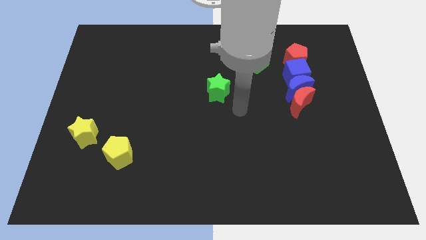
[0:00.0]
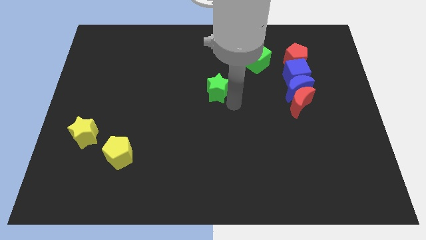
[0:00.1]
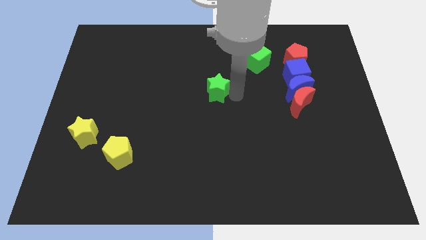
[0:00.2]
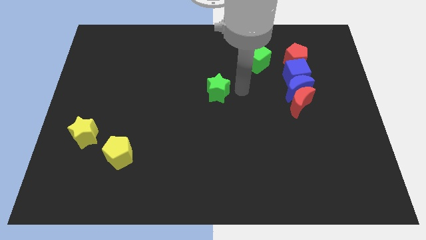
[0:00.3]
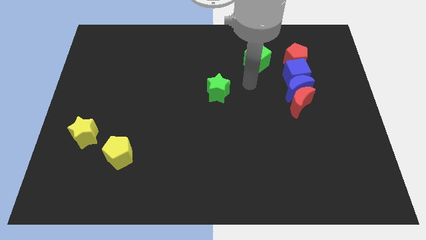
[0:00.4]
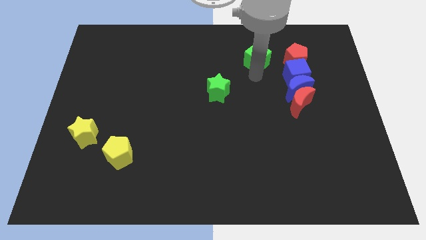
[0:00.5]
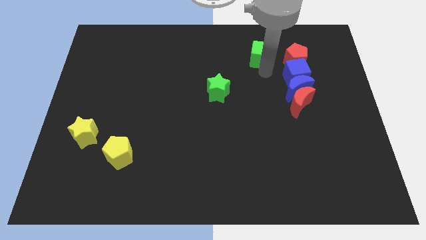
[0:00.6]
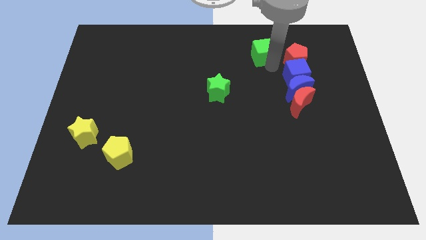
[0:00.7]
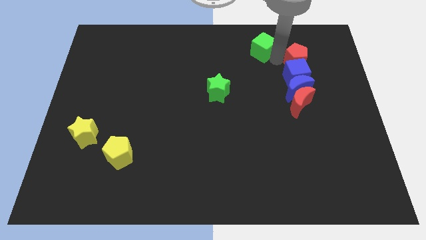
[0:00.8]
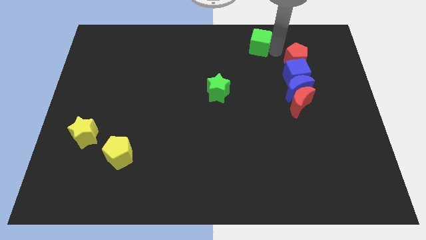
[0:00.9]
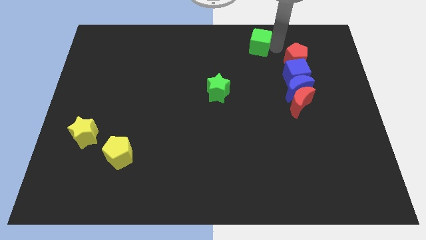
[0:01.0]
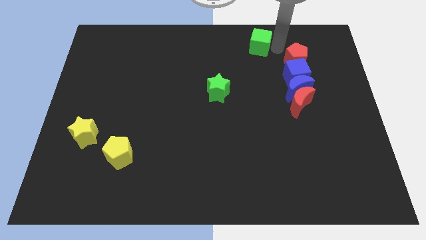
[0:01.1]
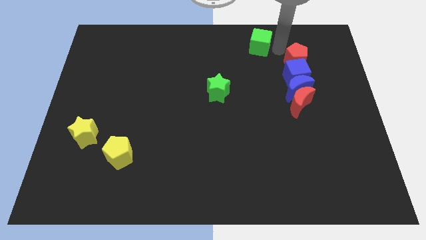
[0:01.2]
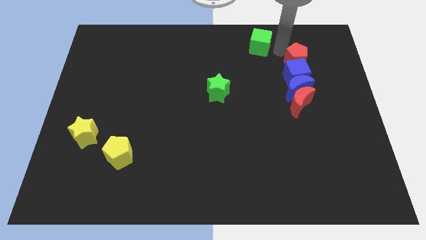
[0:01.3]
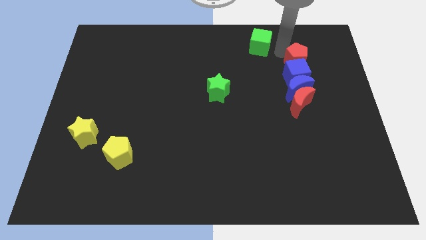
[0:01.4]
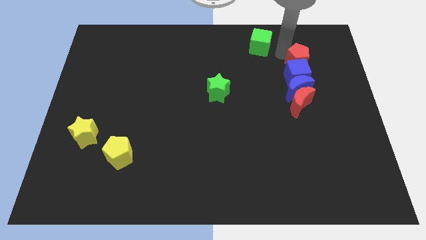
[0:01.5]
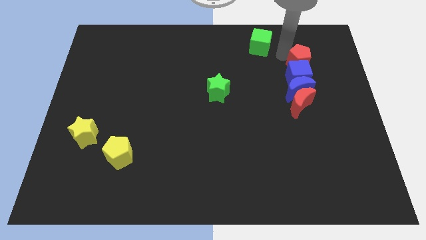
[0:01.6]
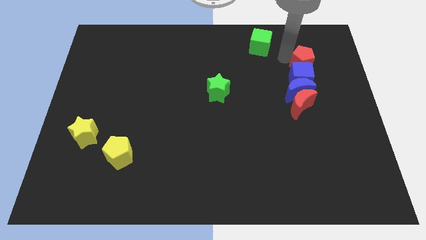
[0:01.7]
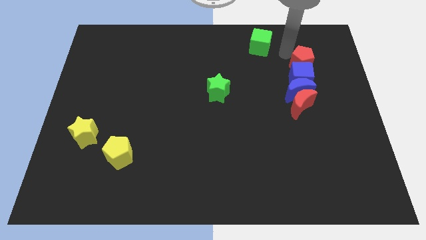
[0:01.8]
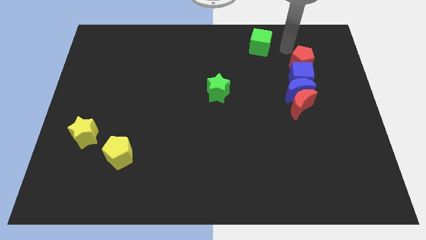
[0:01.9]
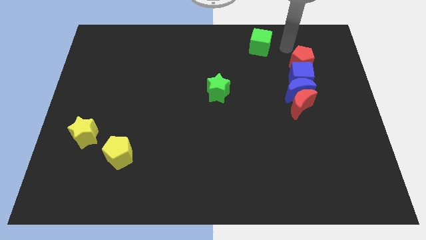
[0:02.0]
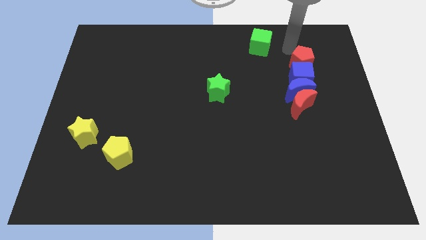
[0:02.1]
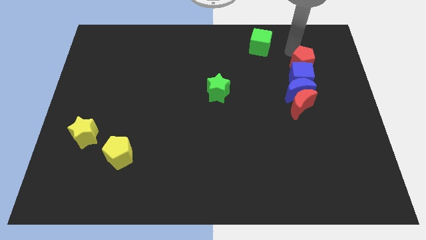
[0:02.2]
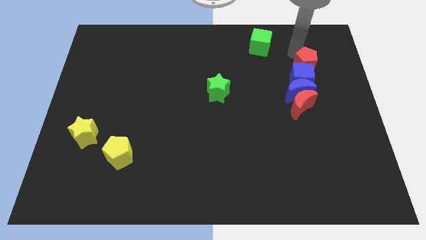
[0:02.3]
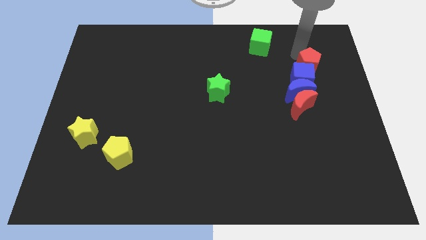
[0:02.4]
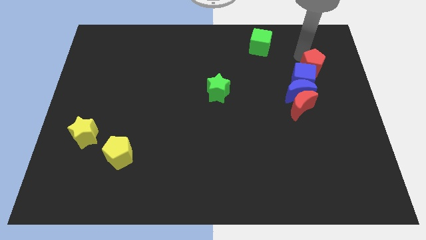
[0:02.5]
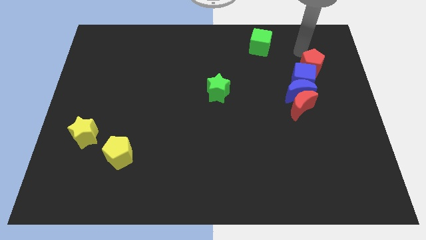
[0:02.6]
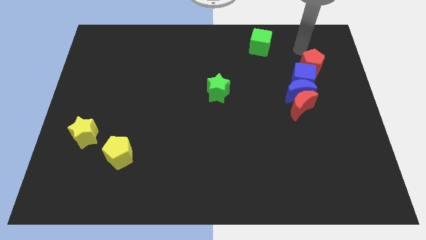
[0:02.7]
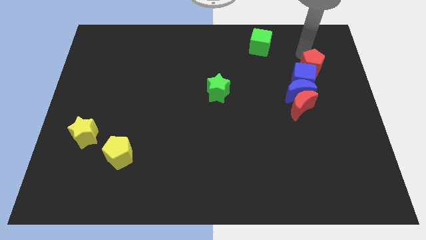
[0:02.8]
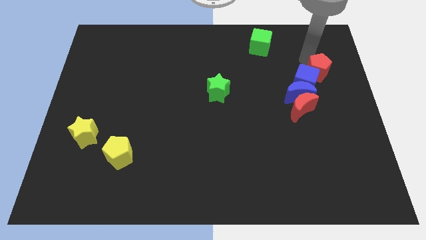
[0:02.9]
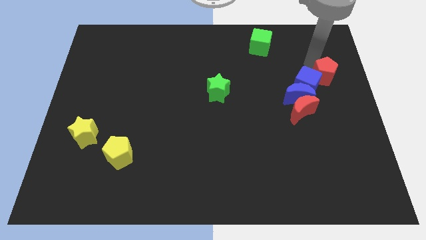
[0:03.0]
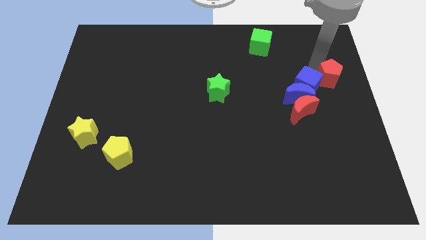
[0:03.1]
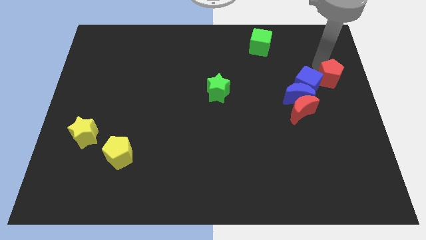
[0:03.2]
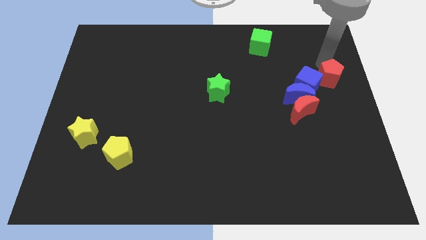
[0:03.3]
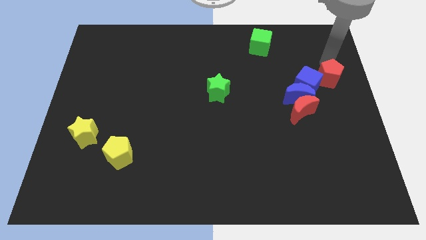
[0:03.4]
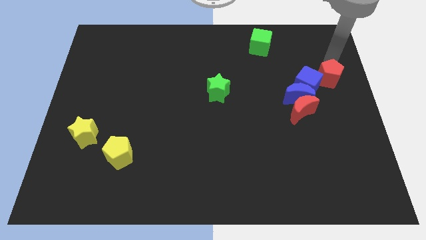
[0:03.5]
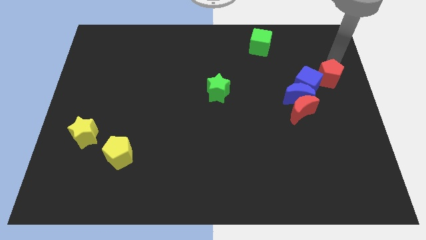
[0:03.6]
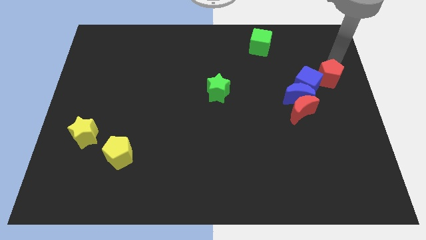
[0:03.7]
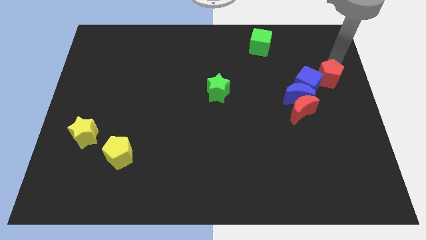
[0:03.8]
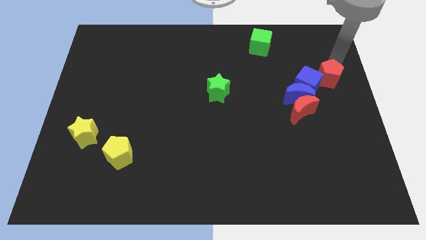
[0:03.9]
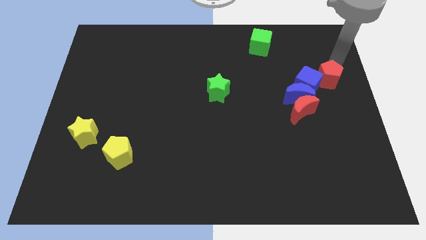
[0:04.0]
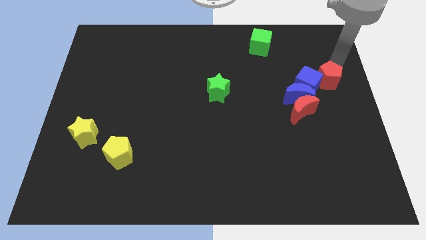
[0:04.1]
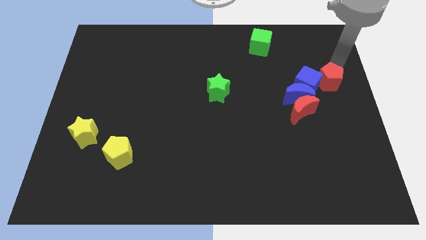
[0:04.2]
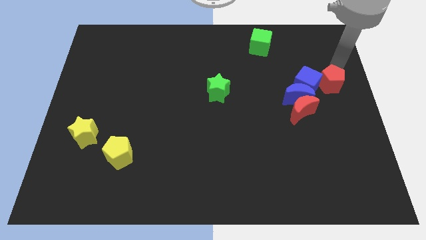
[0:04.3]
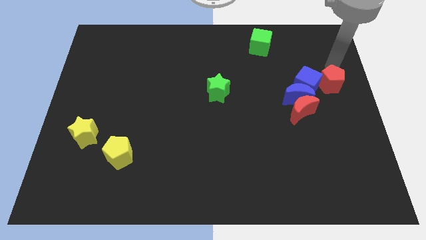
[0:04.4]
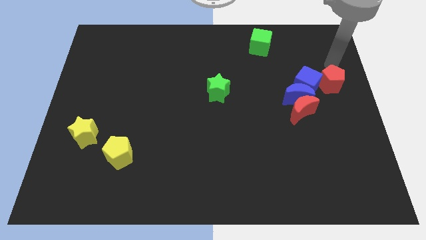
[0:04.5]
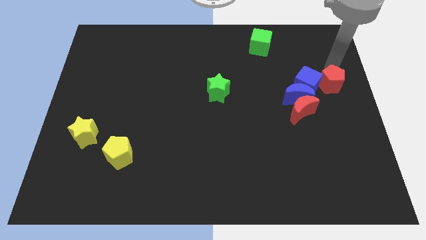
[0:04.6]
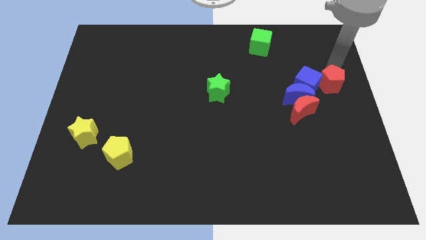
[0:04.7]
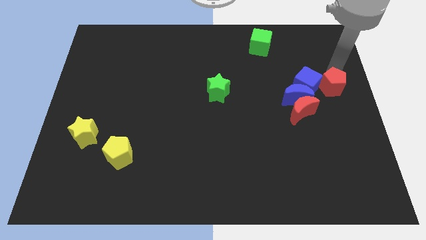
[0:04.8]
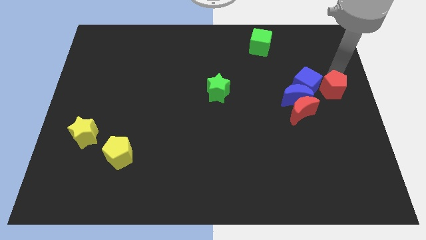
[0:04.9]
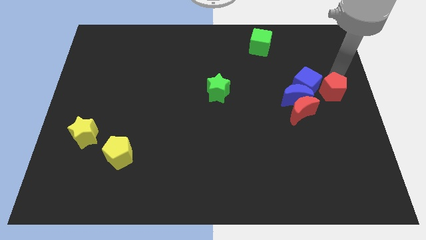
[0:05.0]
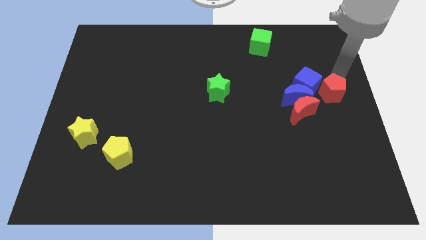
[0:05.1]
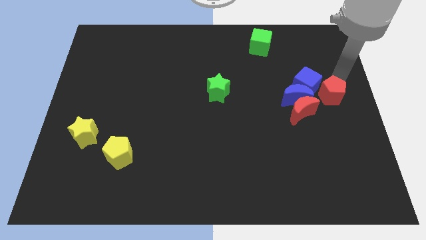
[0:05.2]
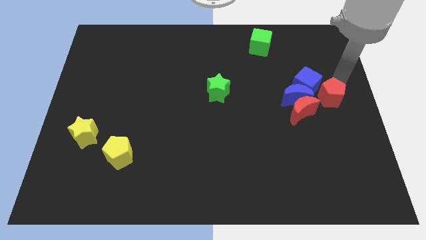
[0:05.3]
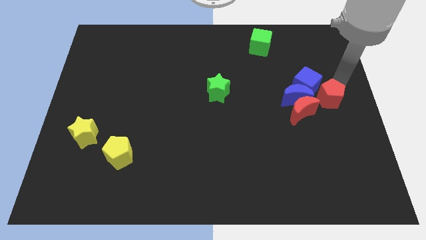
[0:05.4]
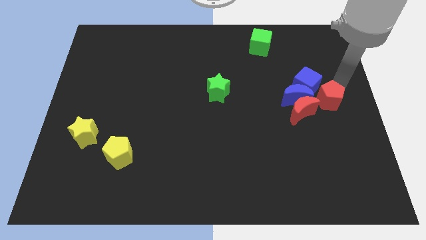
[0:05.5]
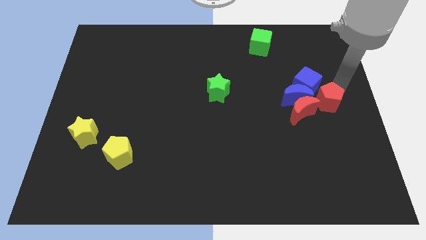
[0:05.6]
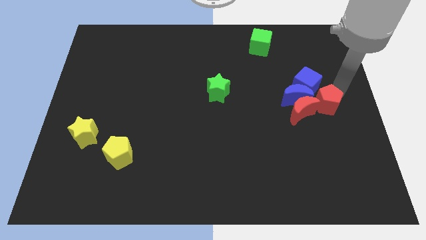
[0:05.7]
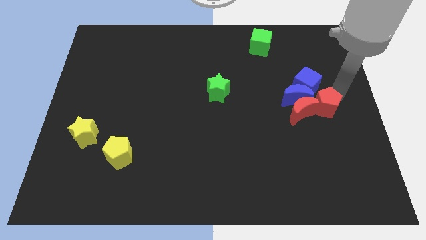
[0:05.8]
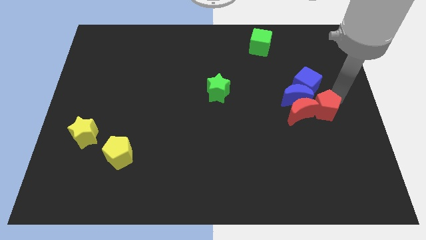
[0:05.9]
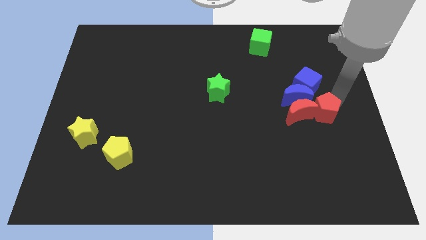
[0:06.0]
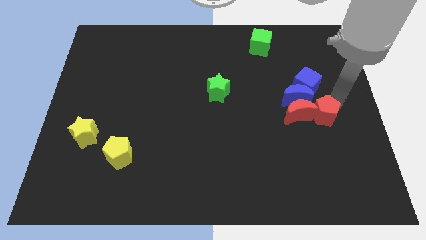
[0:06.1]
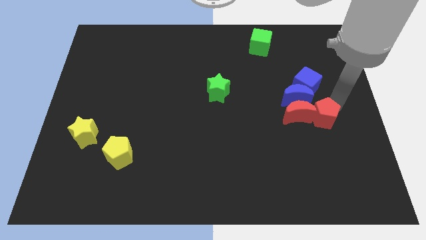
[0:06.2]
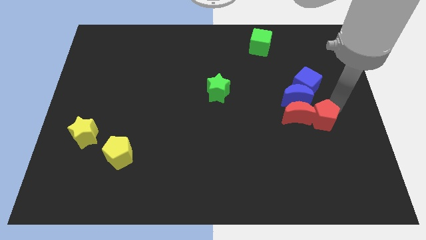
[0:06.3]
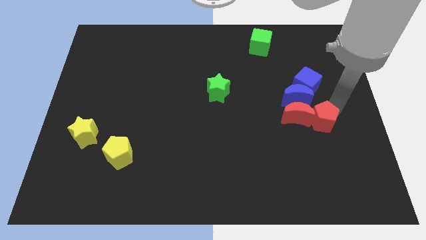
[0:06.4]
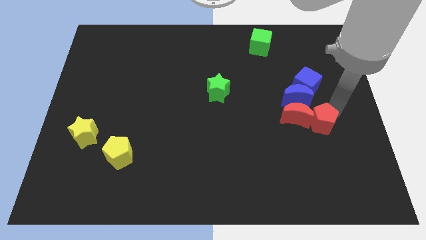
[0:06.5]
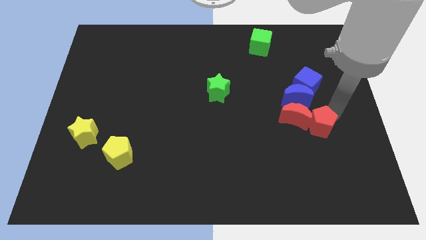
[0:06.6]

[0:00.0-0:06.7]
slide the red pentagon down

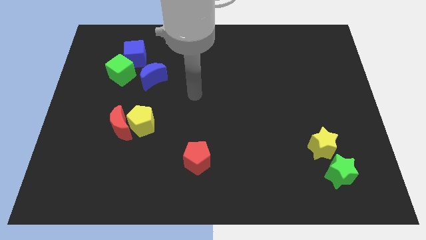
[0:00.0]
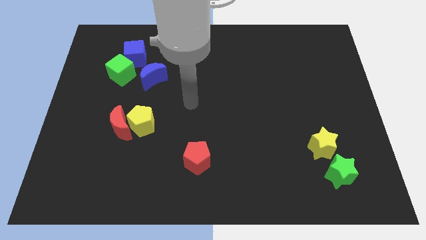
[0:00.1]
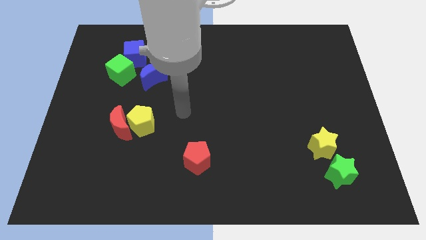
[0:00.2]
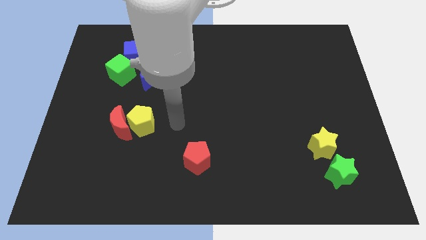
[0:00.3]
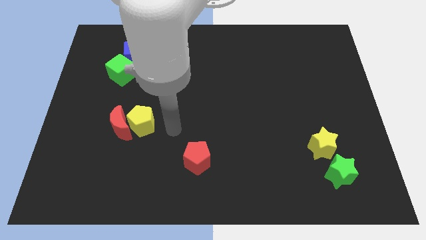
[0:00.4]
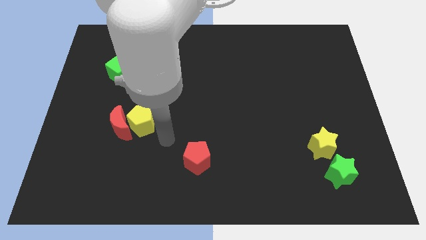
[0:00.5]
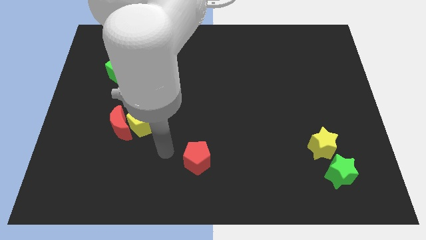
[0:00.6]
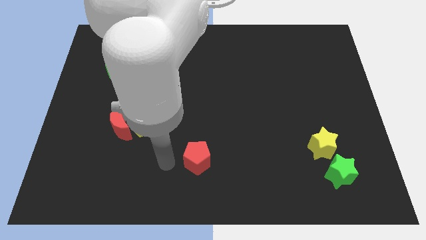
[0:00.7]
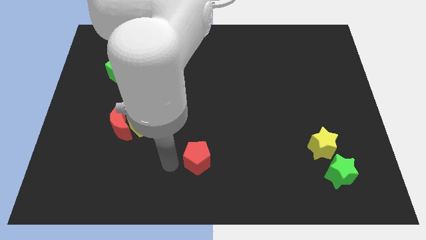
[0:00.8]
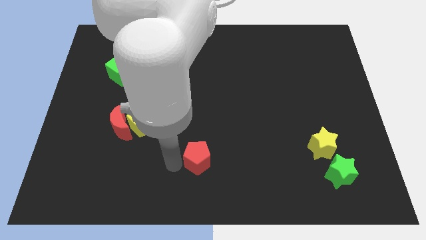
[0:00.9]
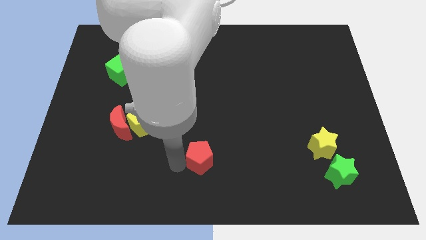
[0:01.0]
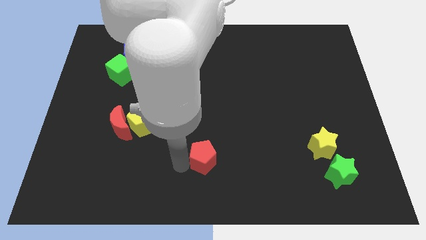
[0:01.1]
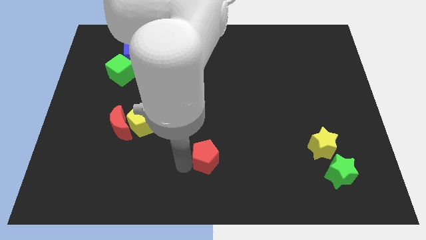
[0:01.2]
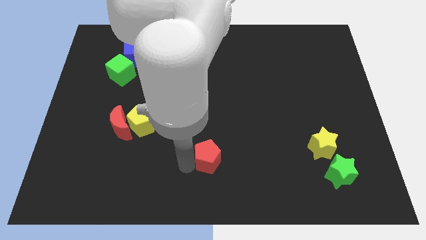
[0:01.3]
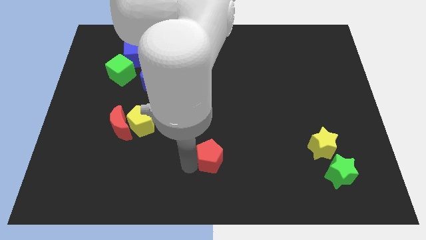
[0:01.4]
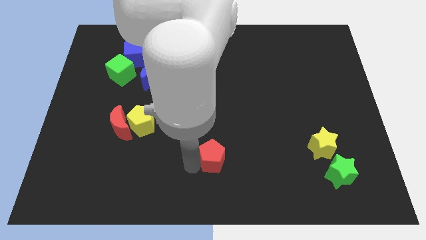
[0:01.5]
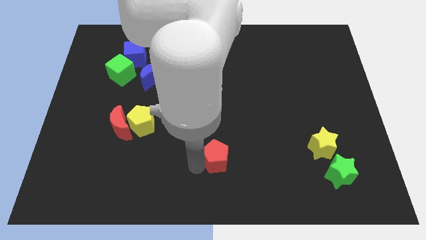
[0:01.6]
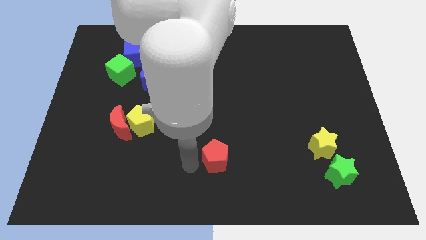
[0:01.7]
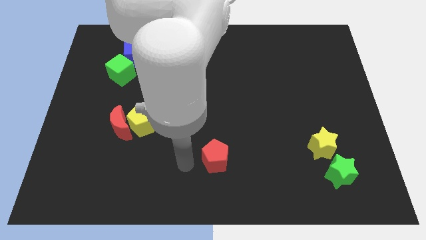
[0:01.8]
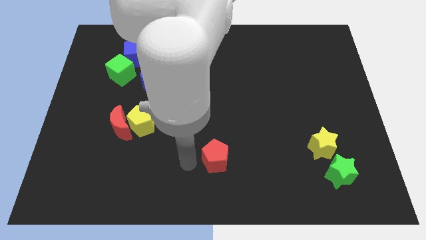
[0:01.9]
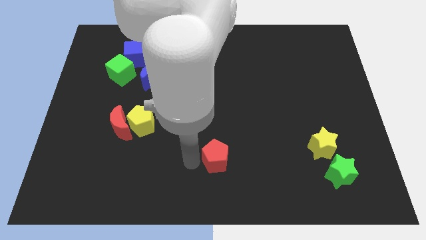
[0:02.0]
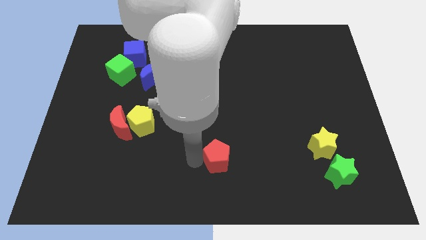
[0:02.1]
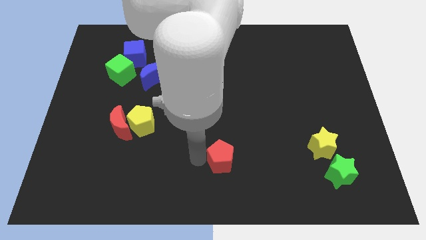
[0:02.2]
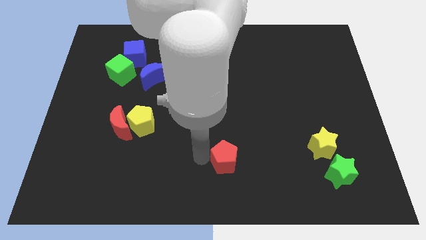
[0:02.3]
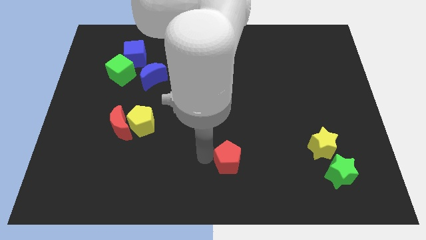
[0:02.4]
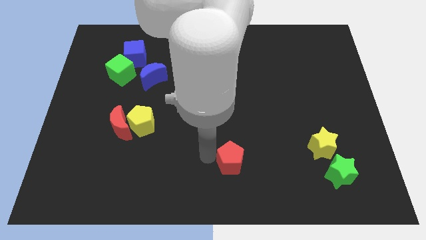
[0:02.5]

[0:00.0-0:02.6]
slightly move the red pentagon to the right
